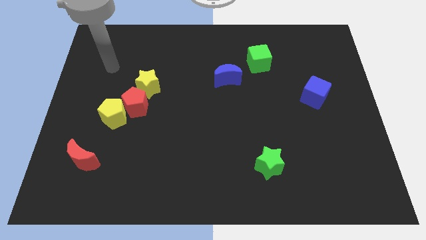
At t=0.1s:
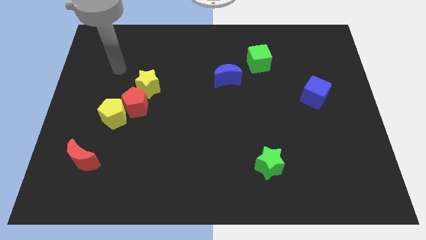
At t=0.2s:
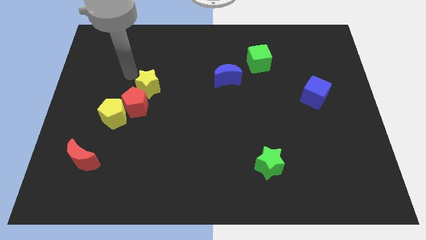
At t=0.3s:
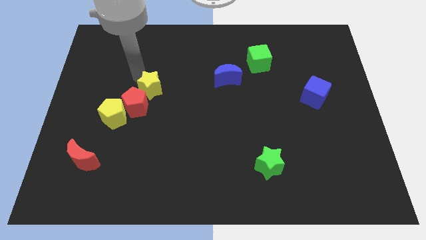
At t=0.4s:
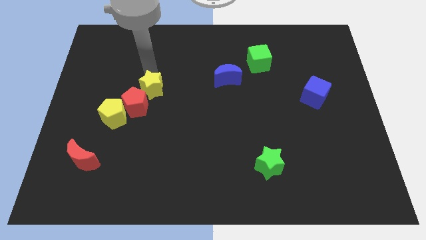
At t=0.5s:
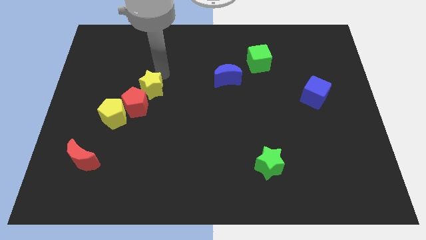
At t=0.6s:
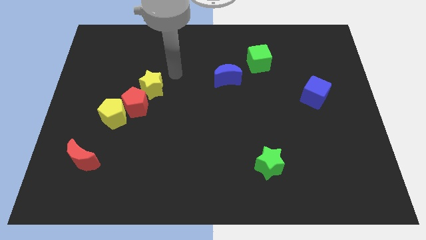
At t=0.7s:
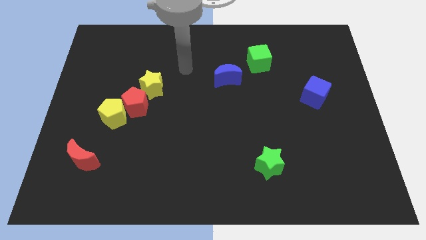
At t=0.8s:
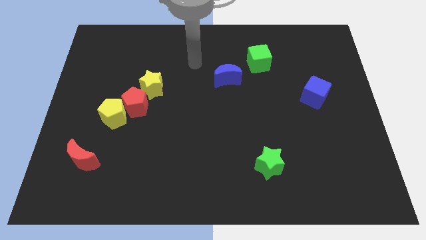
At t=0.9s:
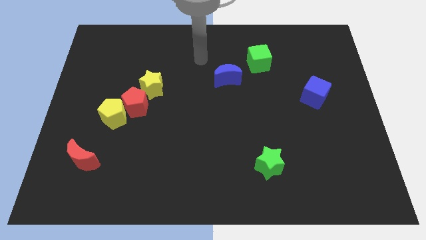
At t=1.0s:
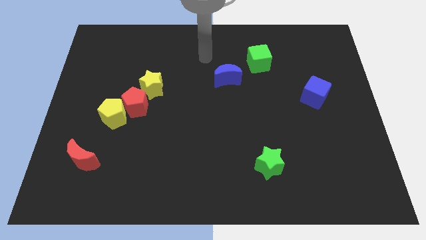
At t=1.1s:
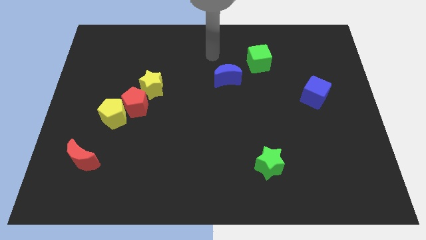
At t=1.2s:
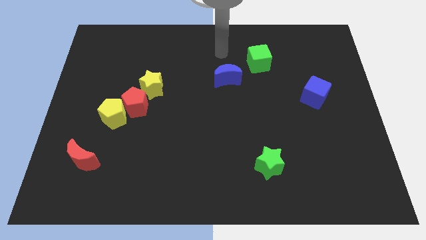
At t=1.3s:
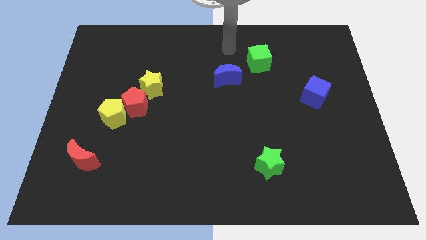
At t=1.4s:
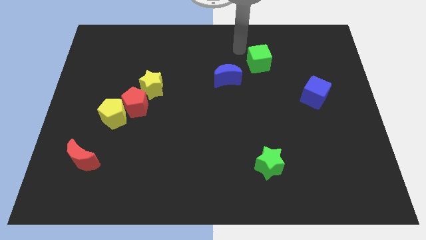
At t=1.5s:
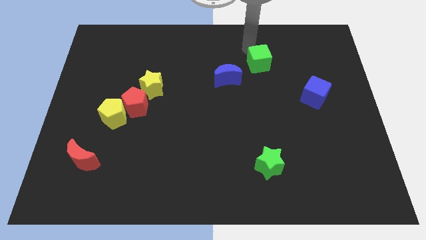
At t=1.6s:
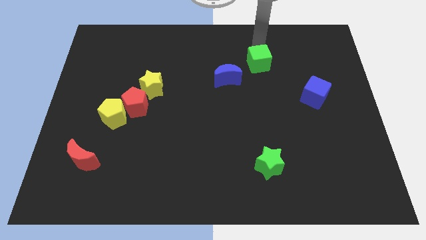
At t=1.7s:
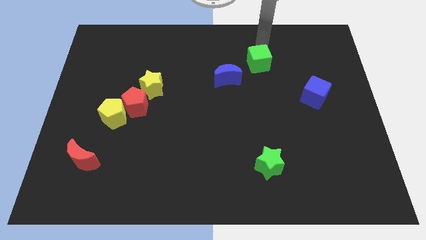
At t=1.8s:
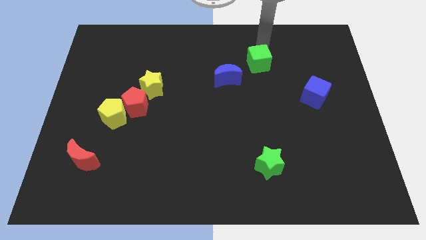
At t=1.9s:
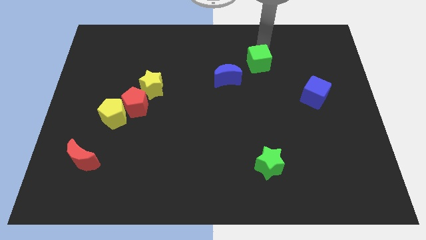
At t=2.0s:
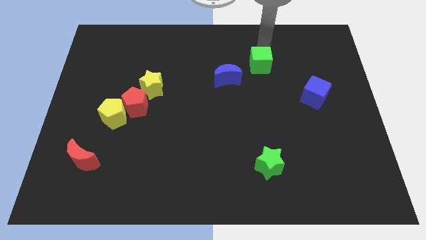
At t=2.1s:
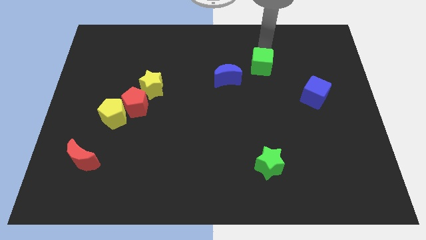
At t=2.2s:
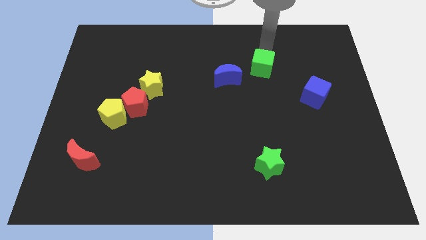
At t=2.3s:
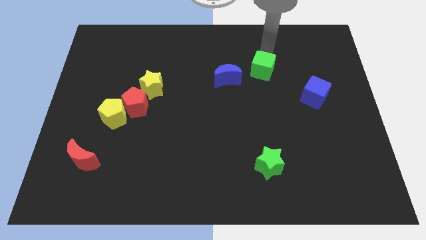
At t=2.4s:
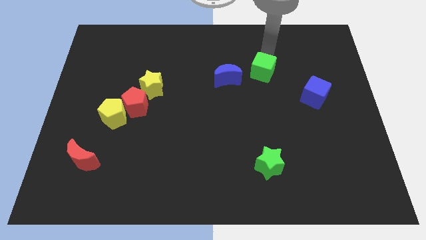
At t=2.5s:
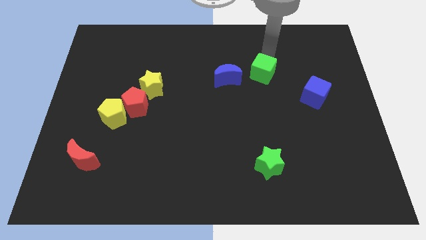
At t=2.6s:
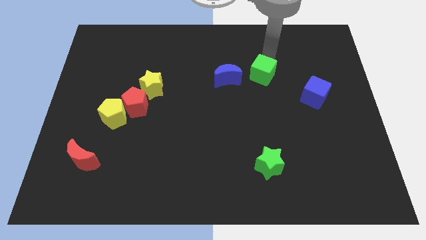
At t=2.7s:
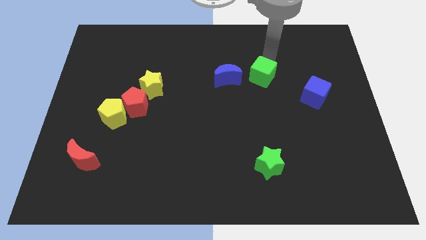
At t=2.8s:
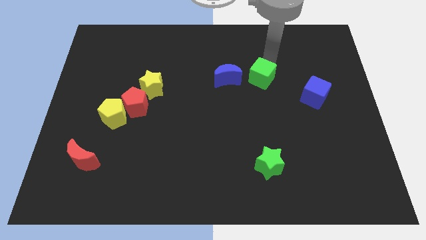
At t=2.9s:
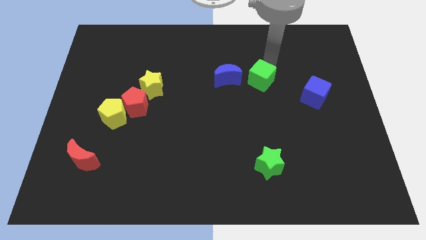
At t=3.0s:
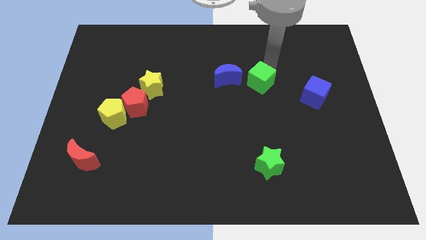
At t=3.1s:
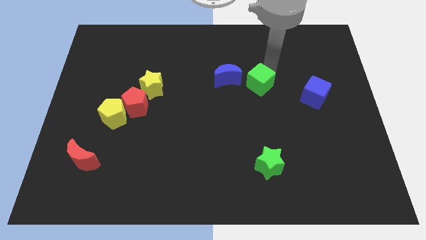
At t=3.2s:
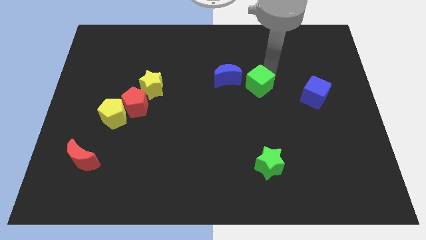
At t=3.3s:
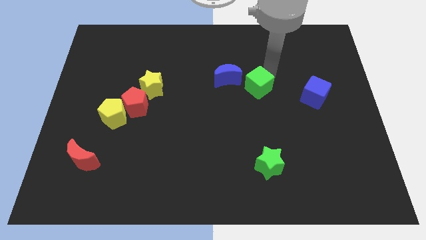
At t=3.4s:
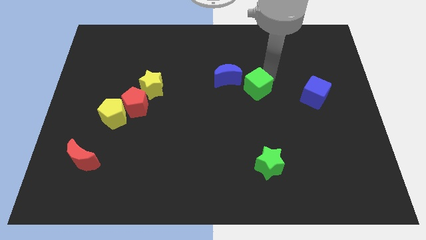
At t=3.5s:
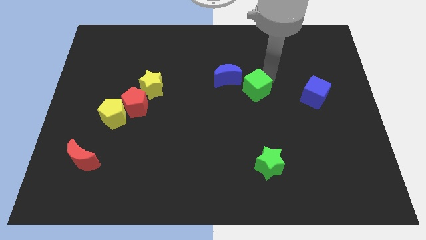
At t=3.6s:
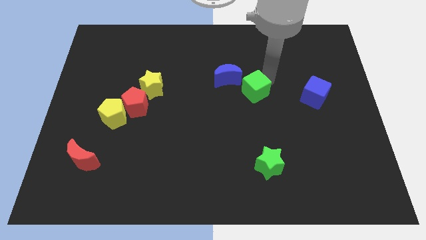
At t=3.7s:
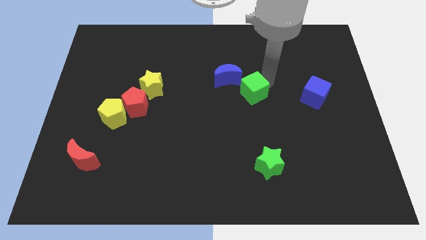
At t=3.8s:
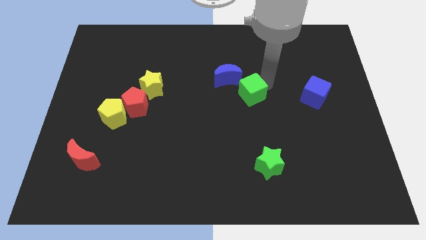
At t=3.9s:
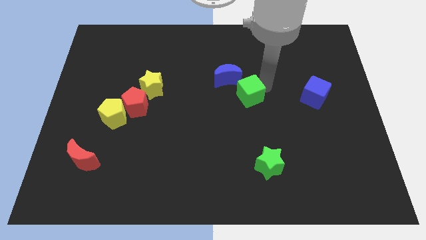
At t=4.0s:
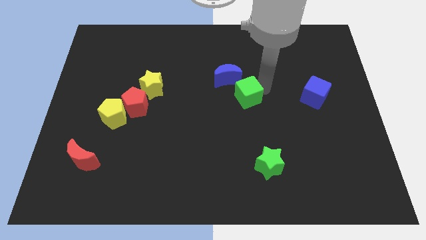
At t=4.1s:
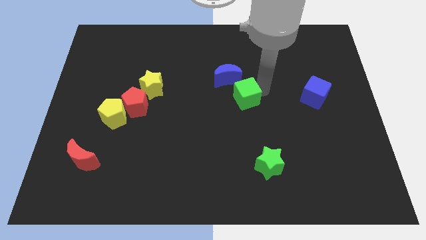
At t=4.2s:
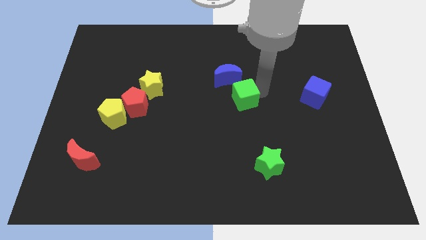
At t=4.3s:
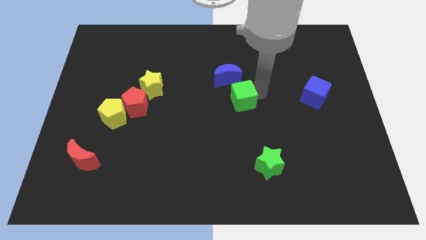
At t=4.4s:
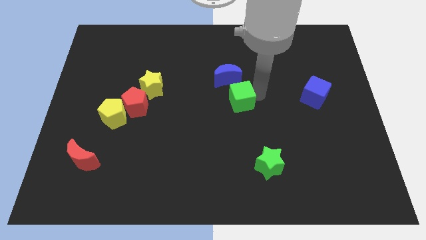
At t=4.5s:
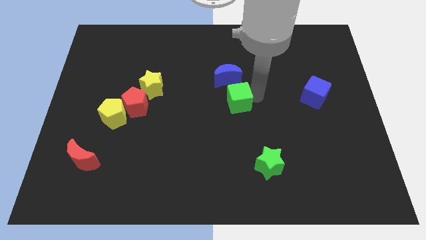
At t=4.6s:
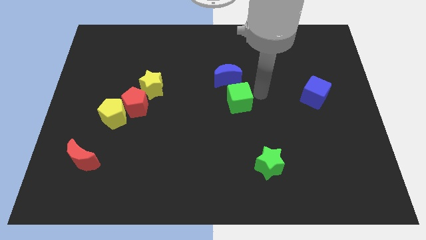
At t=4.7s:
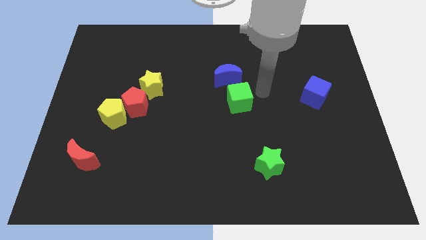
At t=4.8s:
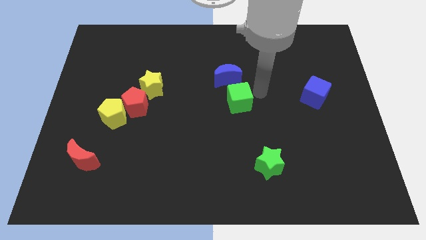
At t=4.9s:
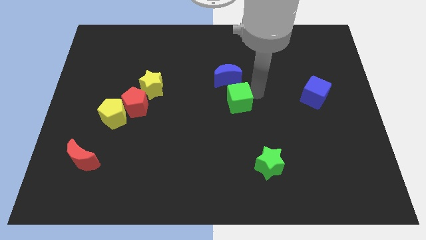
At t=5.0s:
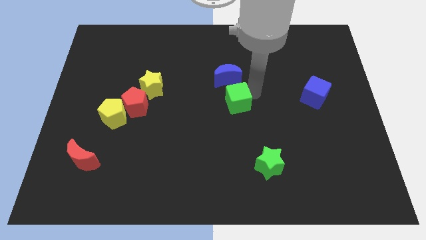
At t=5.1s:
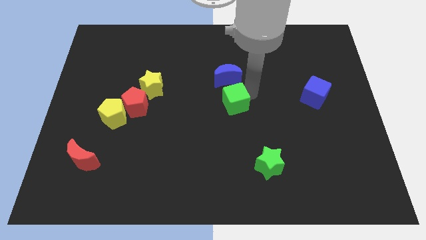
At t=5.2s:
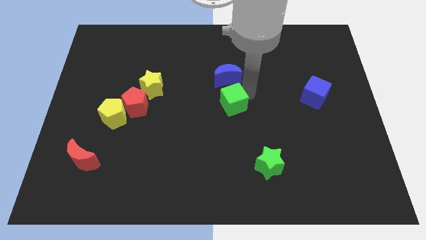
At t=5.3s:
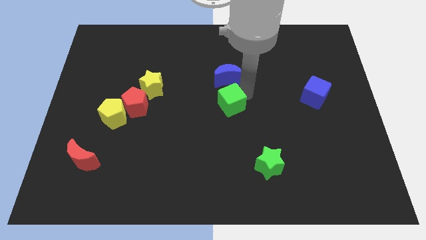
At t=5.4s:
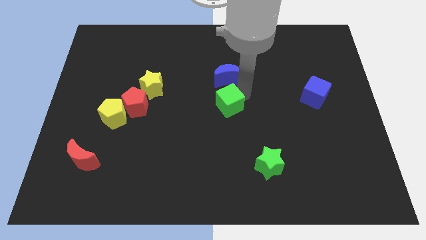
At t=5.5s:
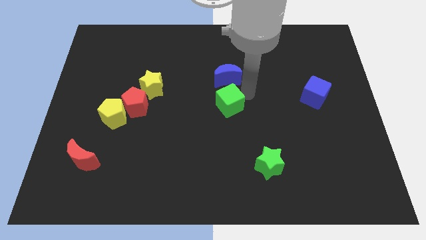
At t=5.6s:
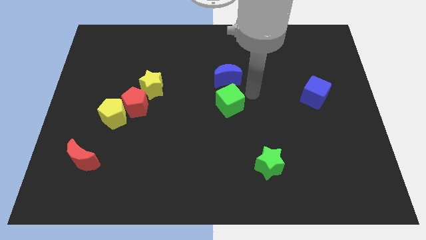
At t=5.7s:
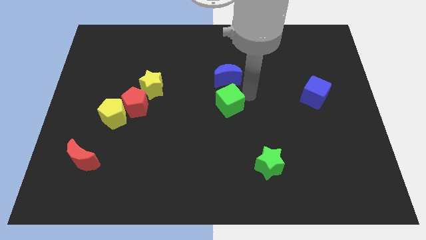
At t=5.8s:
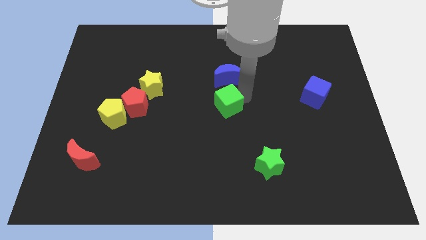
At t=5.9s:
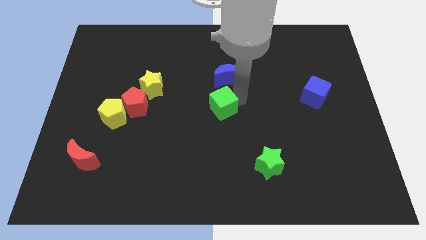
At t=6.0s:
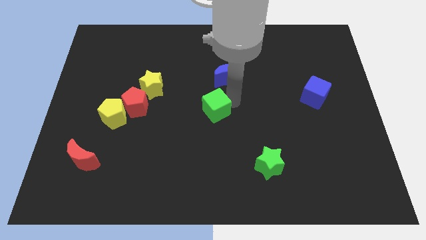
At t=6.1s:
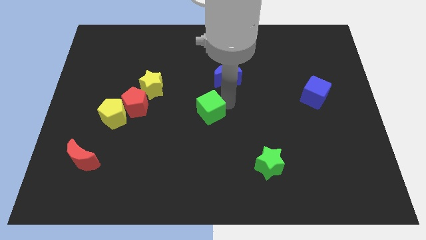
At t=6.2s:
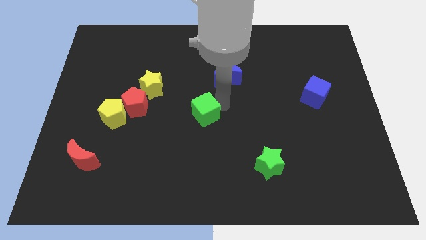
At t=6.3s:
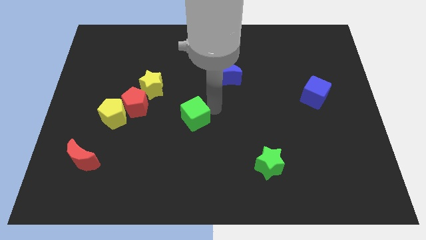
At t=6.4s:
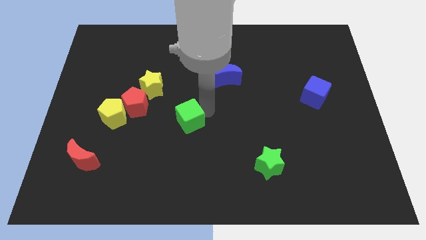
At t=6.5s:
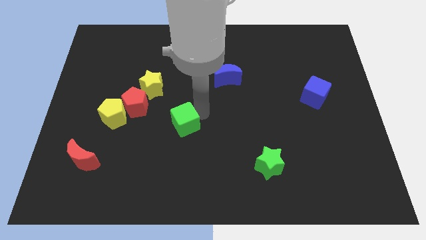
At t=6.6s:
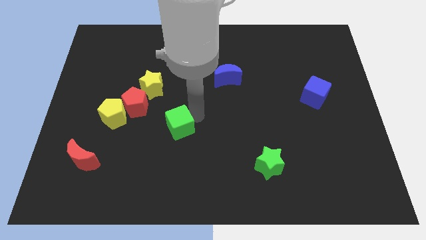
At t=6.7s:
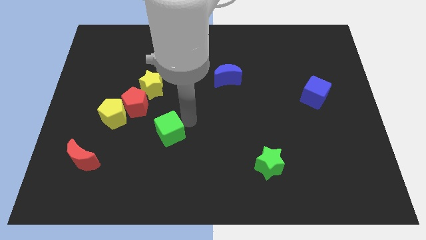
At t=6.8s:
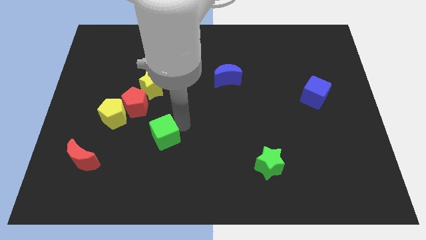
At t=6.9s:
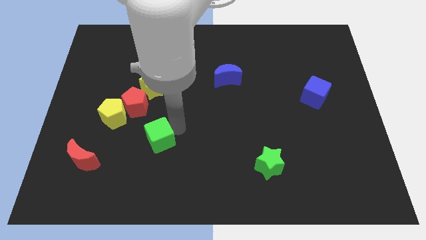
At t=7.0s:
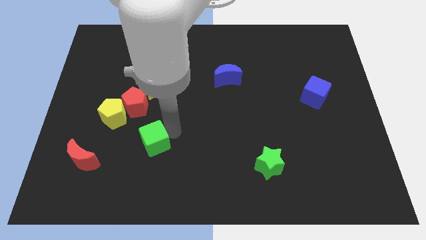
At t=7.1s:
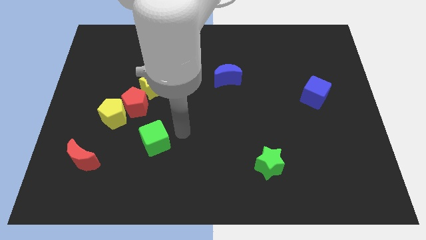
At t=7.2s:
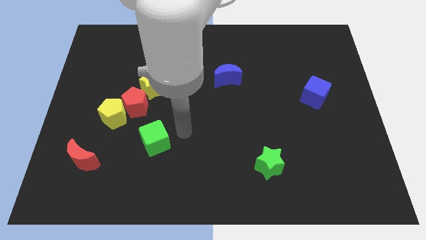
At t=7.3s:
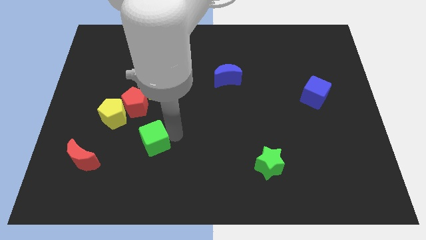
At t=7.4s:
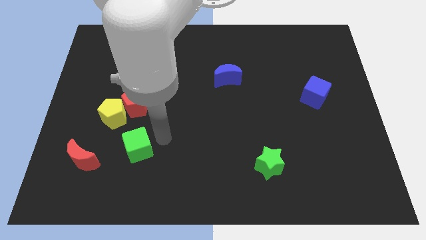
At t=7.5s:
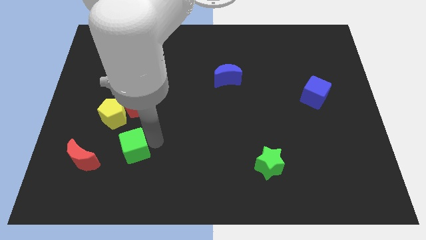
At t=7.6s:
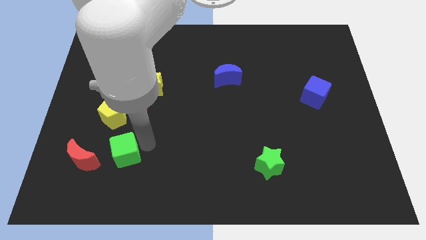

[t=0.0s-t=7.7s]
put the green cube below the yellow pentagon
